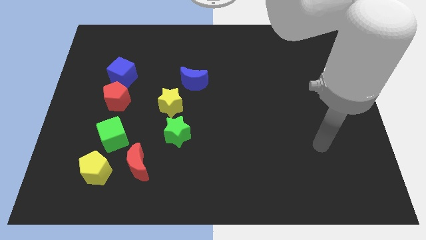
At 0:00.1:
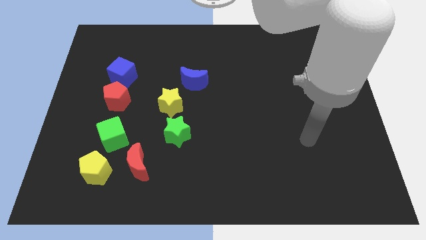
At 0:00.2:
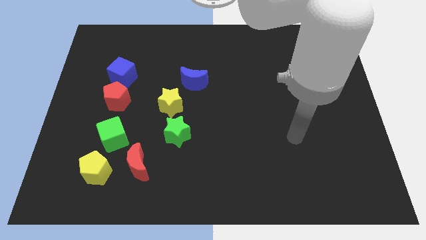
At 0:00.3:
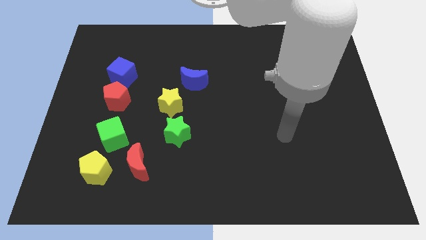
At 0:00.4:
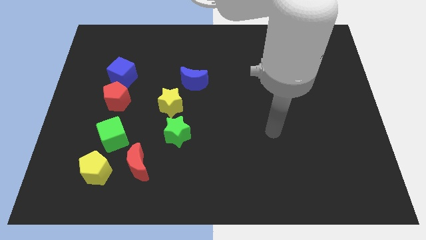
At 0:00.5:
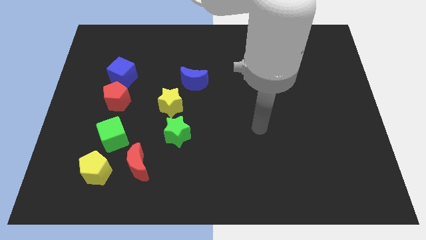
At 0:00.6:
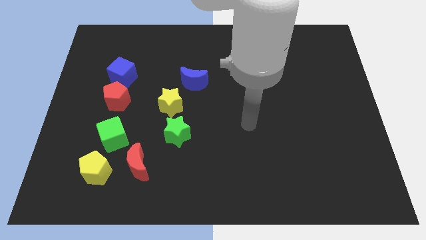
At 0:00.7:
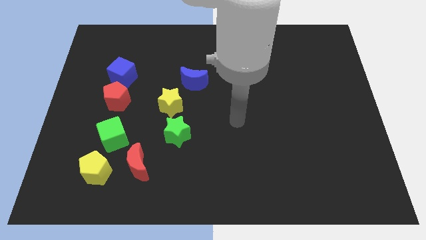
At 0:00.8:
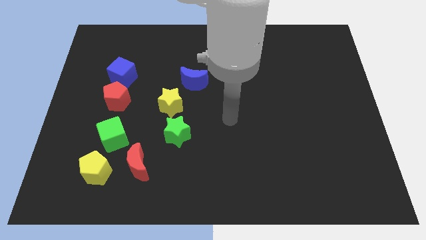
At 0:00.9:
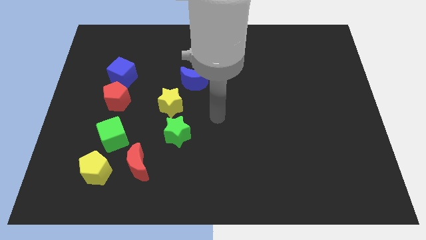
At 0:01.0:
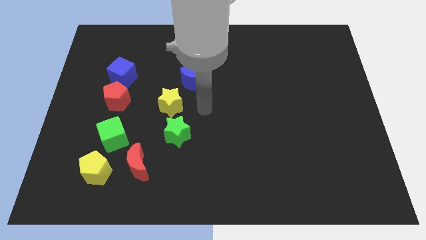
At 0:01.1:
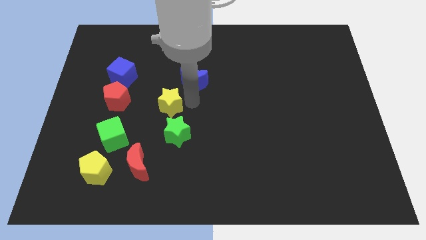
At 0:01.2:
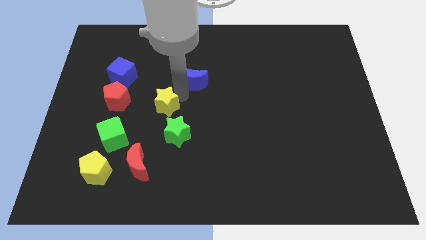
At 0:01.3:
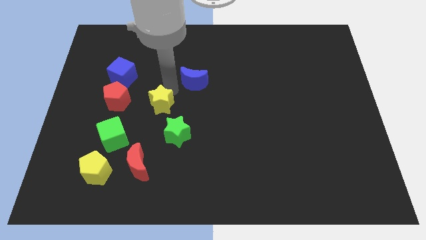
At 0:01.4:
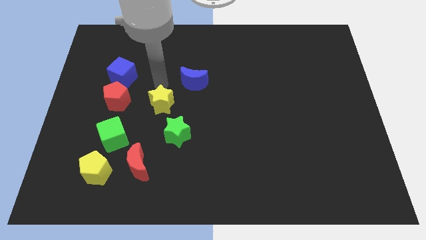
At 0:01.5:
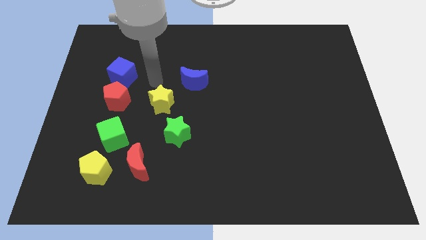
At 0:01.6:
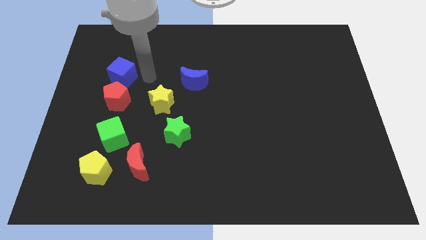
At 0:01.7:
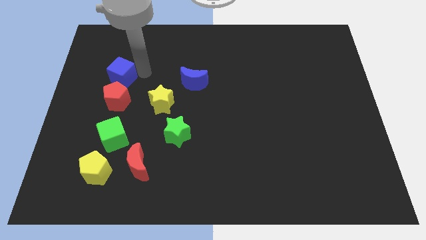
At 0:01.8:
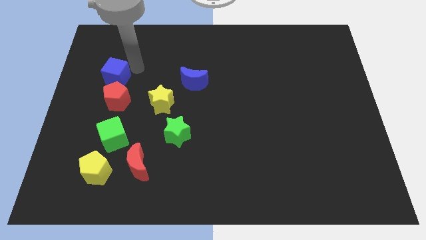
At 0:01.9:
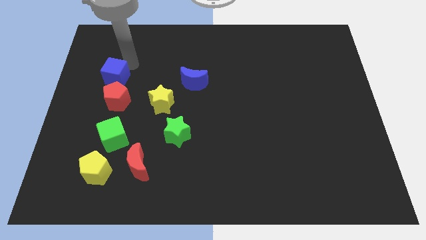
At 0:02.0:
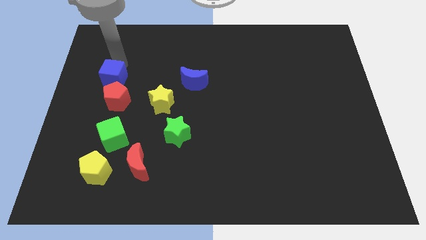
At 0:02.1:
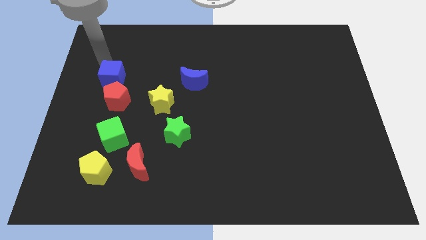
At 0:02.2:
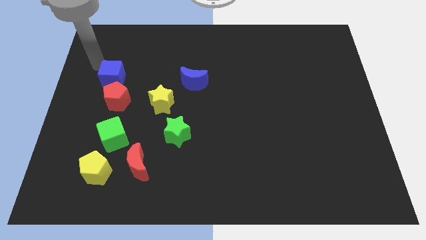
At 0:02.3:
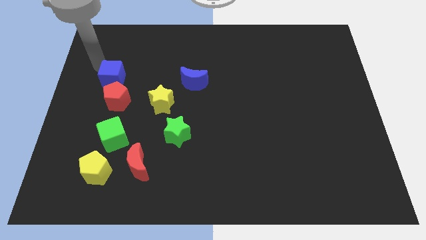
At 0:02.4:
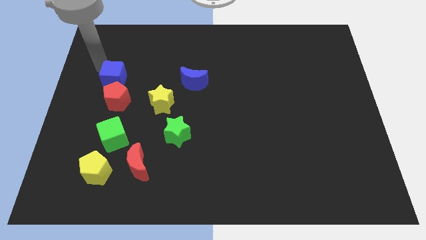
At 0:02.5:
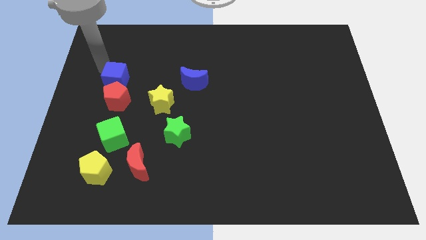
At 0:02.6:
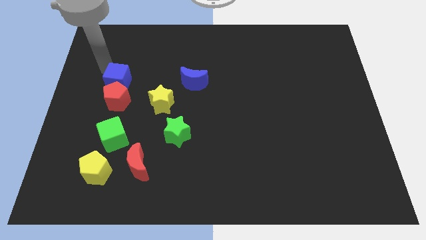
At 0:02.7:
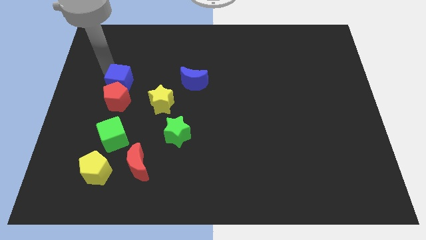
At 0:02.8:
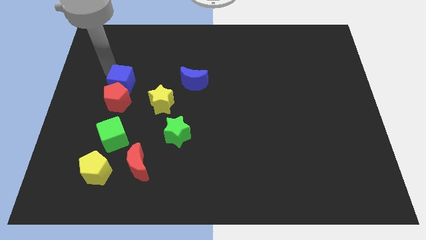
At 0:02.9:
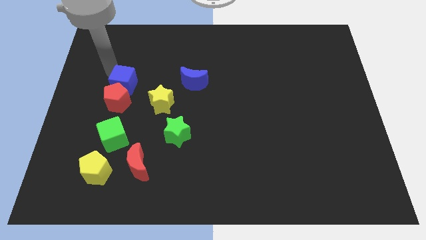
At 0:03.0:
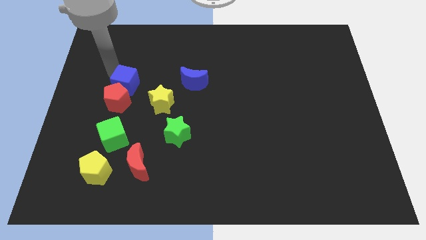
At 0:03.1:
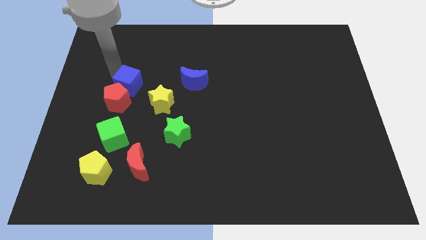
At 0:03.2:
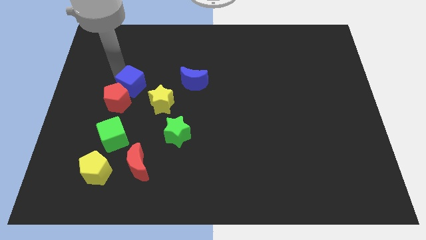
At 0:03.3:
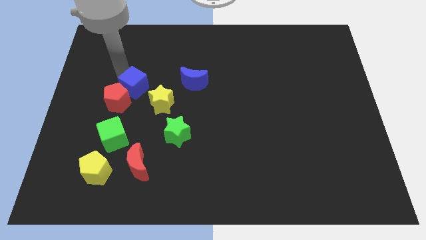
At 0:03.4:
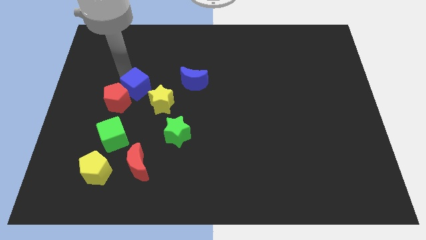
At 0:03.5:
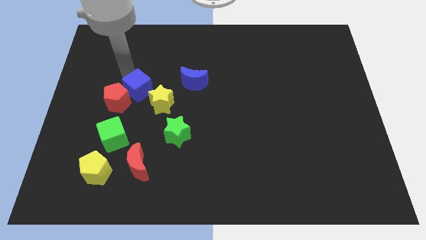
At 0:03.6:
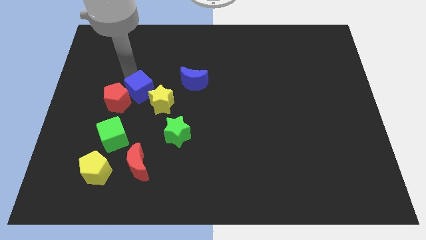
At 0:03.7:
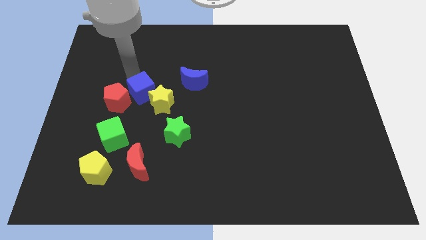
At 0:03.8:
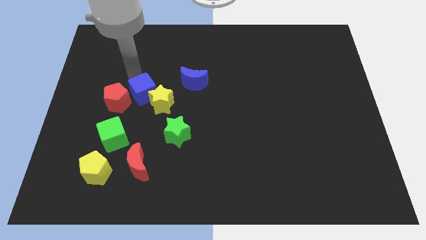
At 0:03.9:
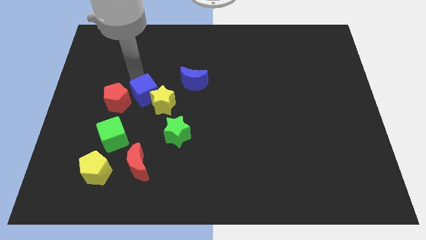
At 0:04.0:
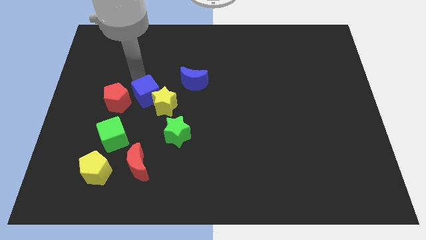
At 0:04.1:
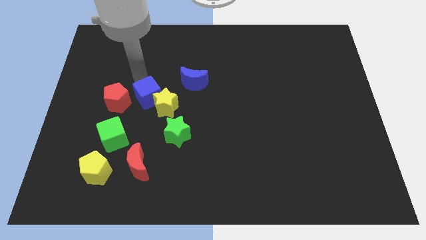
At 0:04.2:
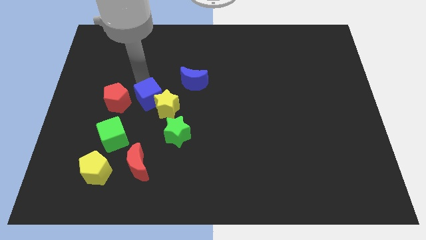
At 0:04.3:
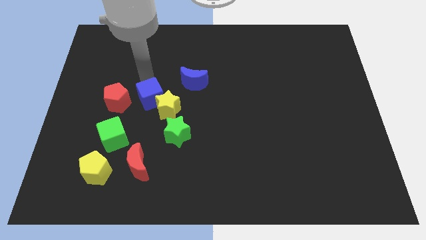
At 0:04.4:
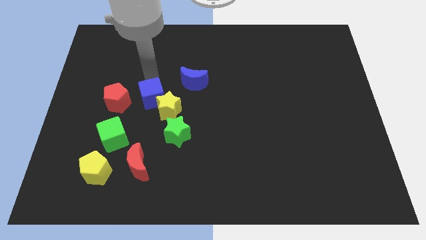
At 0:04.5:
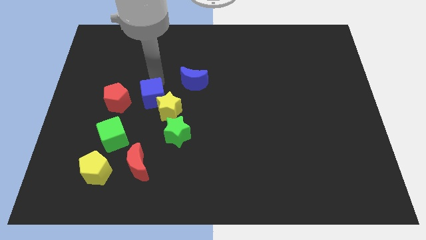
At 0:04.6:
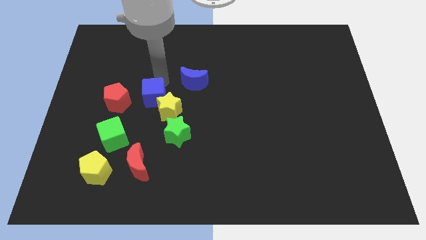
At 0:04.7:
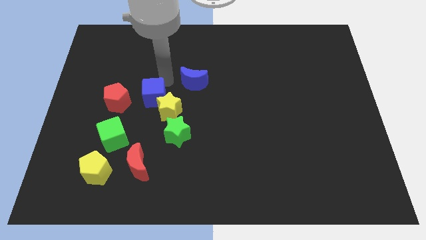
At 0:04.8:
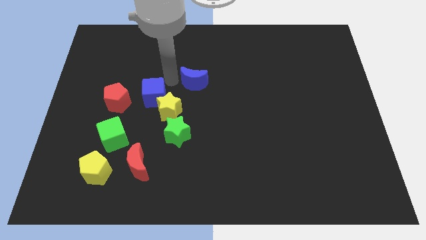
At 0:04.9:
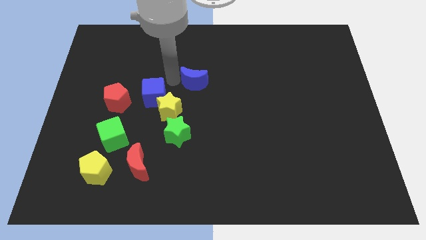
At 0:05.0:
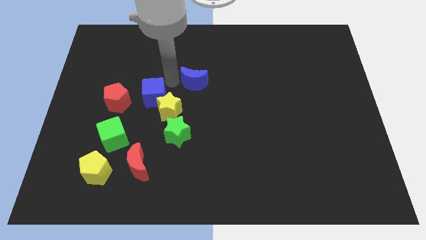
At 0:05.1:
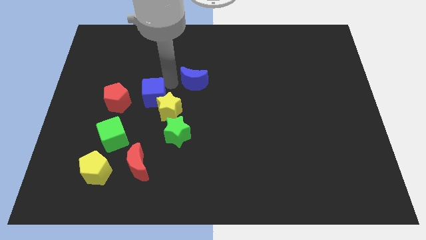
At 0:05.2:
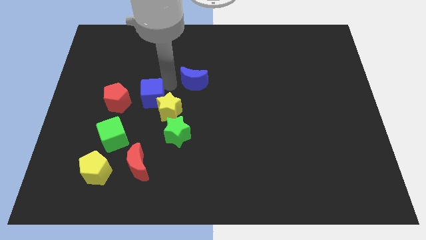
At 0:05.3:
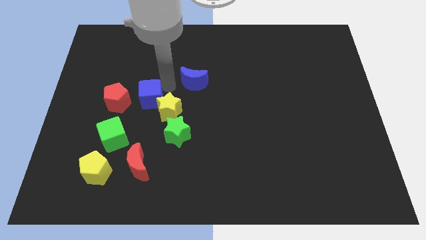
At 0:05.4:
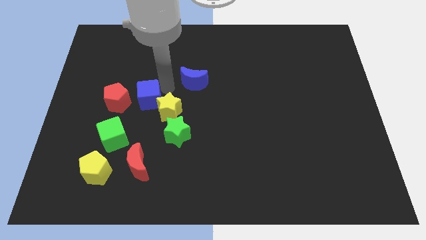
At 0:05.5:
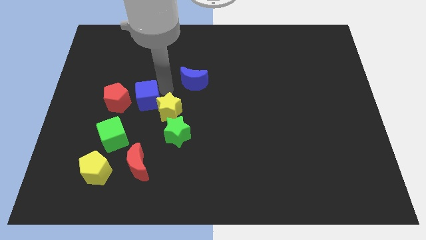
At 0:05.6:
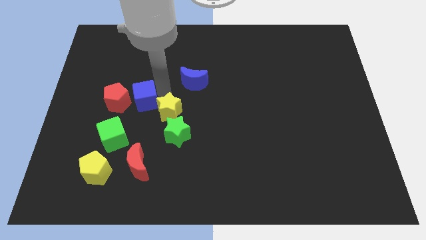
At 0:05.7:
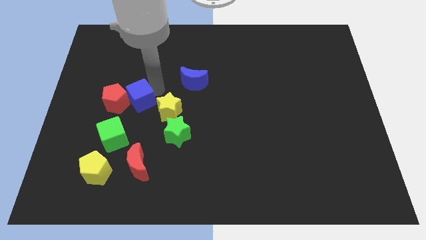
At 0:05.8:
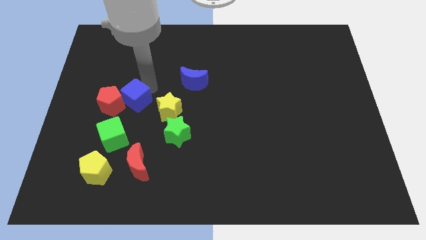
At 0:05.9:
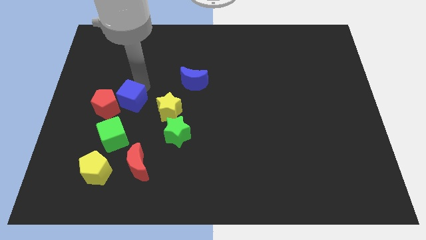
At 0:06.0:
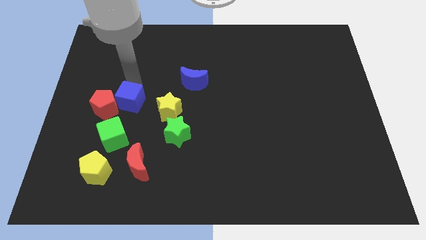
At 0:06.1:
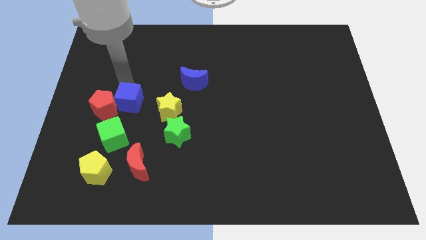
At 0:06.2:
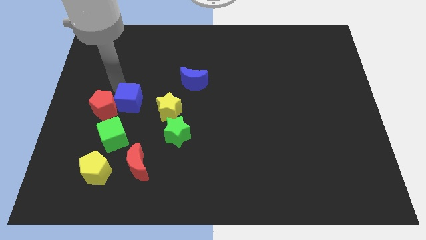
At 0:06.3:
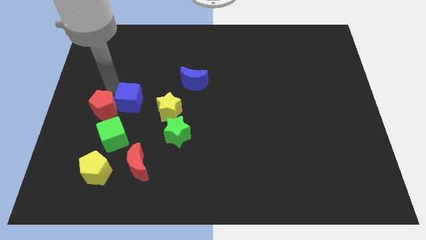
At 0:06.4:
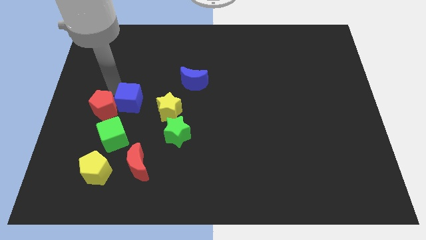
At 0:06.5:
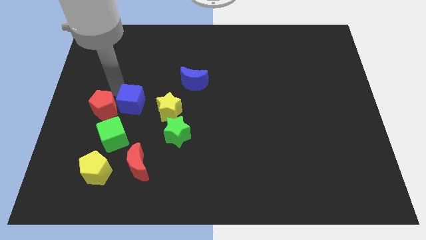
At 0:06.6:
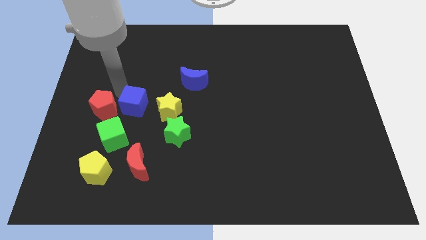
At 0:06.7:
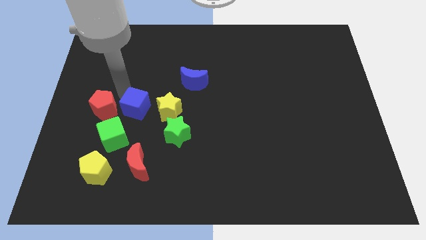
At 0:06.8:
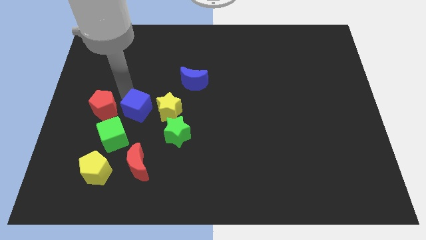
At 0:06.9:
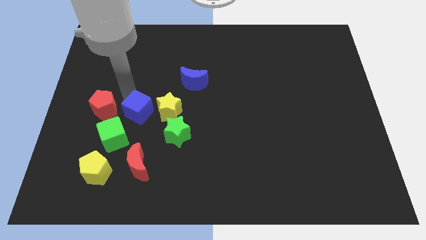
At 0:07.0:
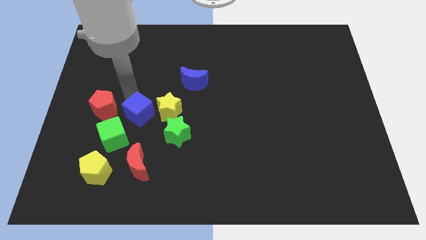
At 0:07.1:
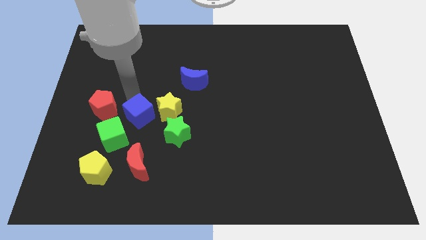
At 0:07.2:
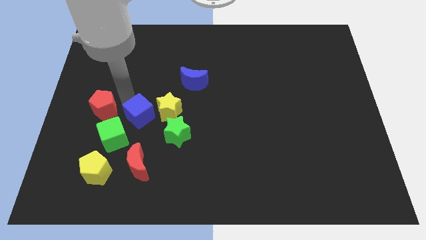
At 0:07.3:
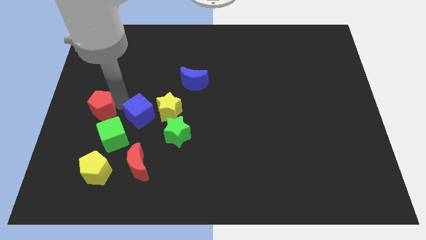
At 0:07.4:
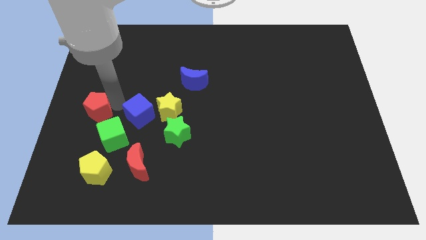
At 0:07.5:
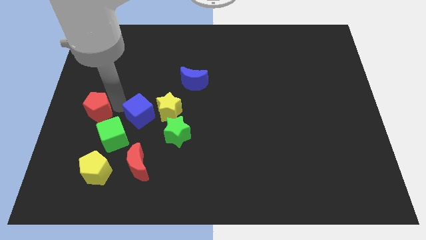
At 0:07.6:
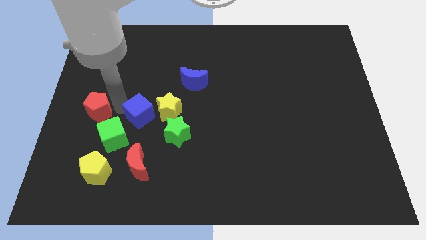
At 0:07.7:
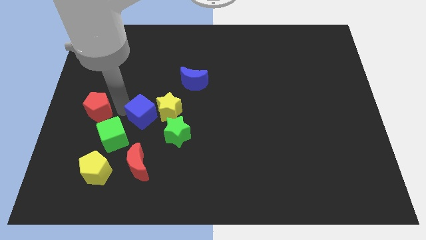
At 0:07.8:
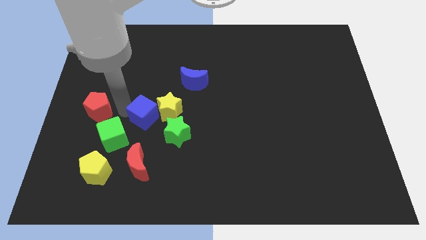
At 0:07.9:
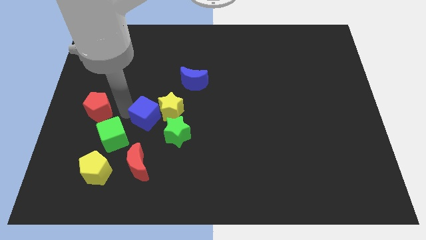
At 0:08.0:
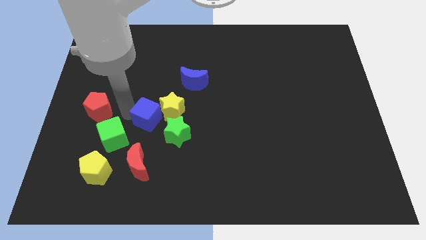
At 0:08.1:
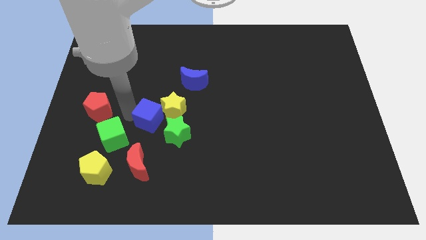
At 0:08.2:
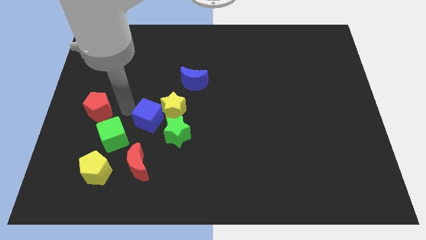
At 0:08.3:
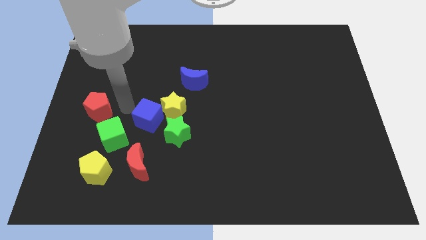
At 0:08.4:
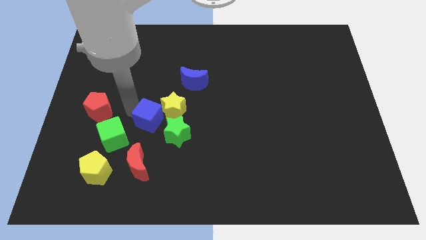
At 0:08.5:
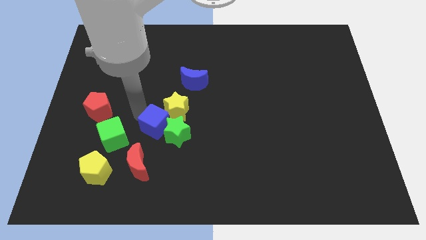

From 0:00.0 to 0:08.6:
put the blue cube towards the green star
